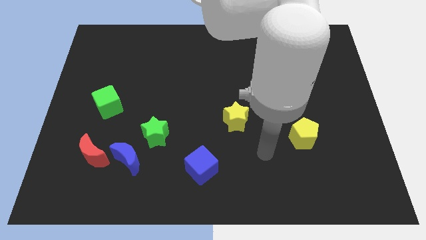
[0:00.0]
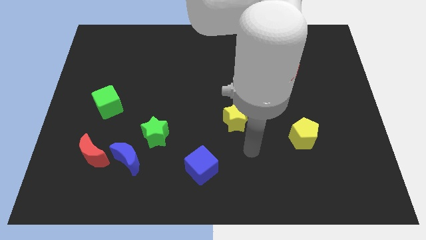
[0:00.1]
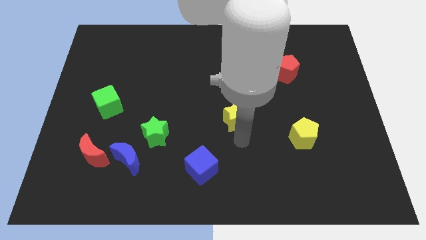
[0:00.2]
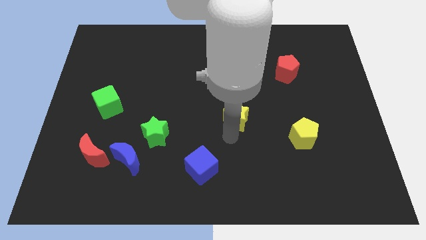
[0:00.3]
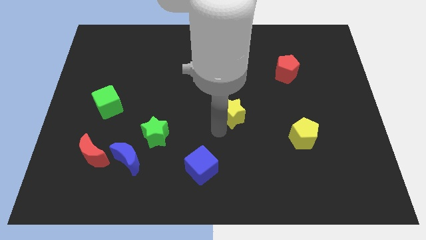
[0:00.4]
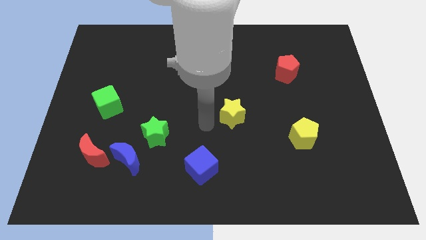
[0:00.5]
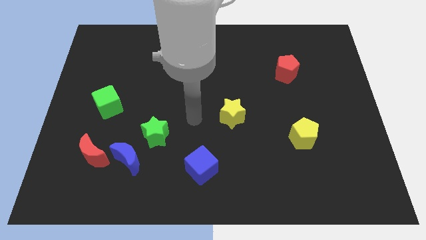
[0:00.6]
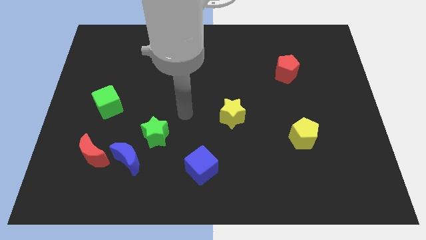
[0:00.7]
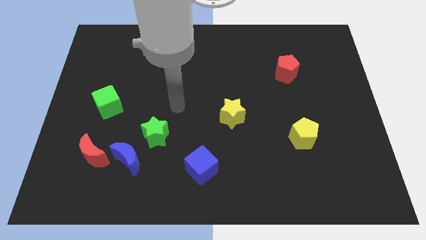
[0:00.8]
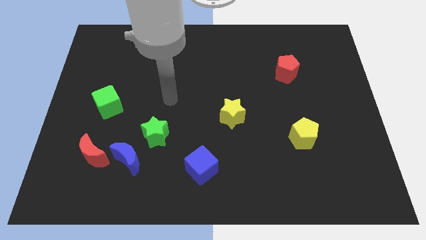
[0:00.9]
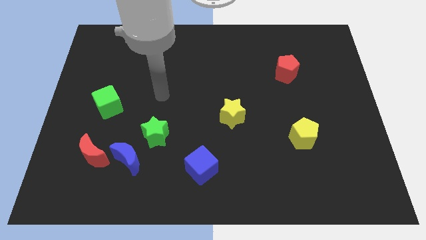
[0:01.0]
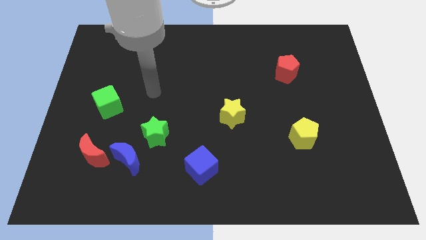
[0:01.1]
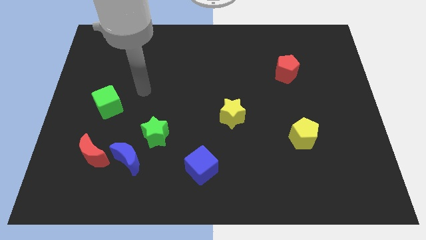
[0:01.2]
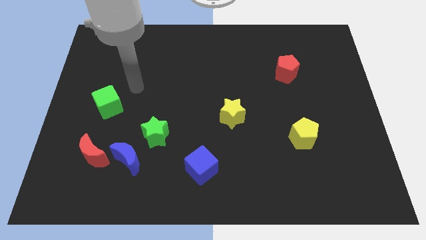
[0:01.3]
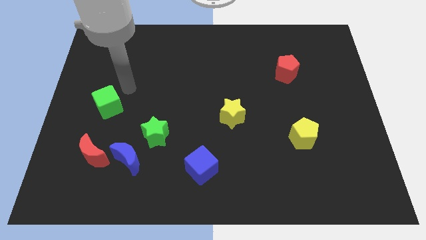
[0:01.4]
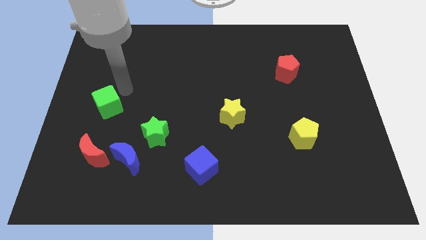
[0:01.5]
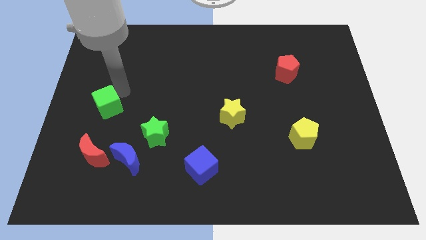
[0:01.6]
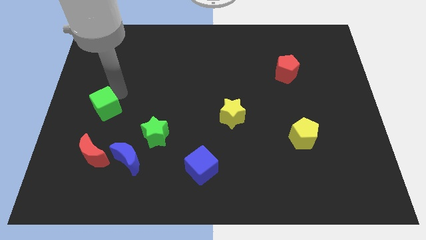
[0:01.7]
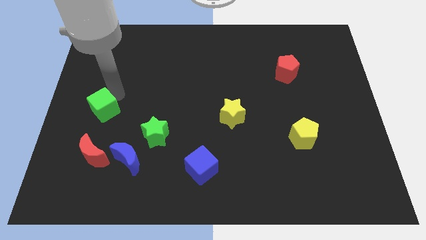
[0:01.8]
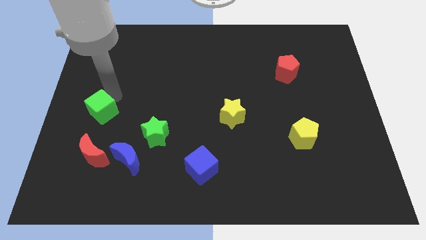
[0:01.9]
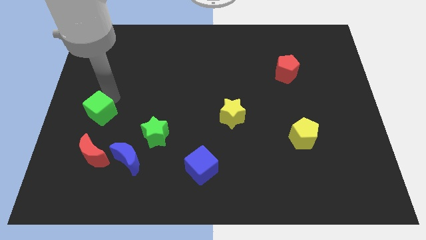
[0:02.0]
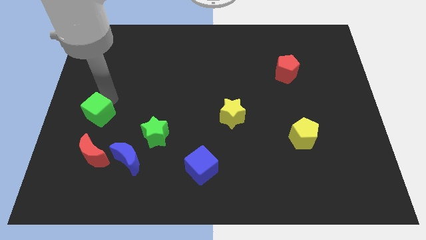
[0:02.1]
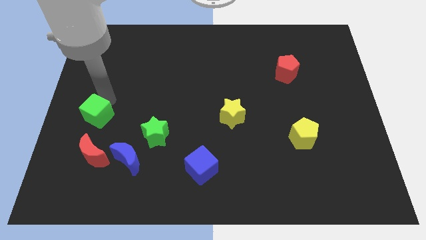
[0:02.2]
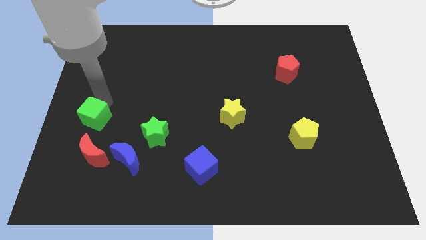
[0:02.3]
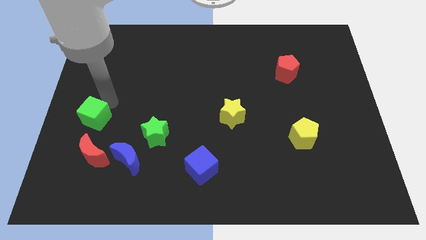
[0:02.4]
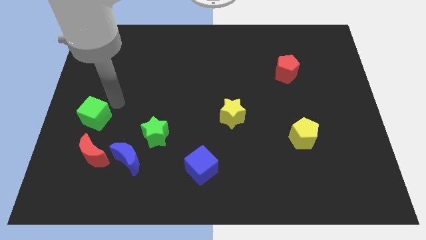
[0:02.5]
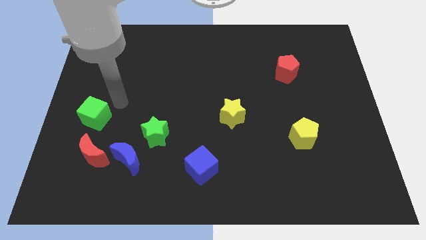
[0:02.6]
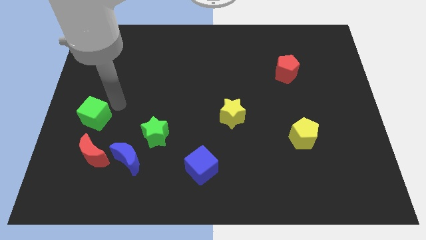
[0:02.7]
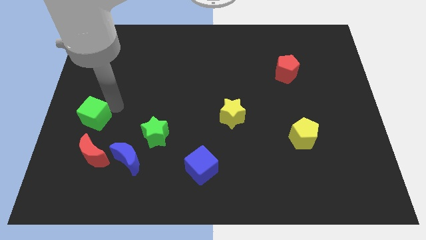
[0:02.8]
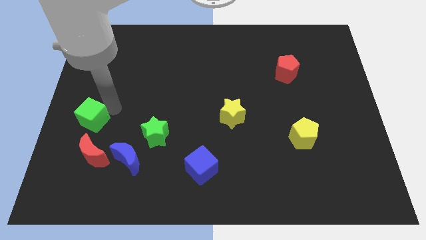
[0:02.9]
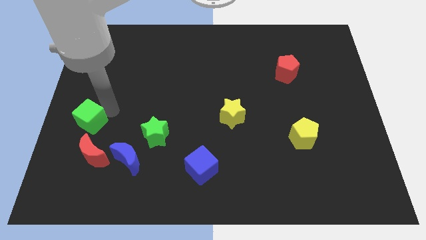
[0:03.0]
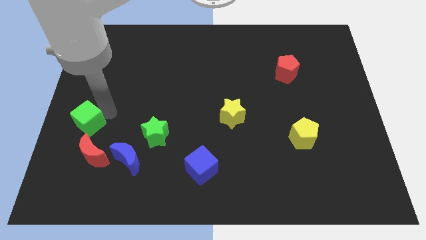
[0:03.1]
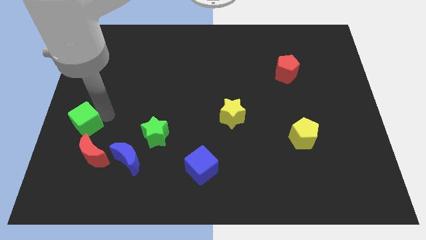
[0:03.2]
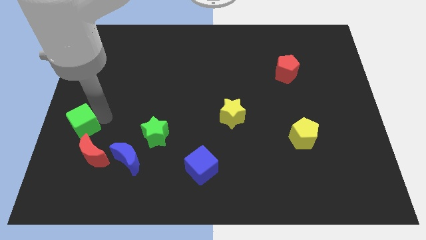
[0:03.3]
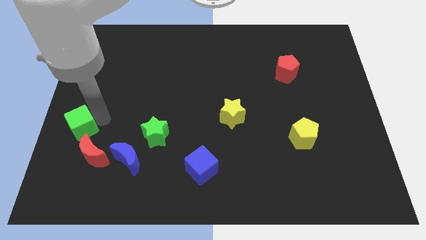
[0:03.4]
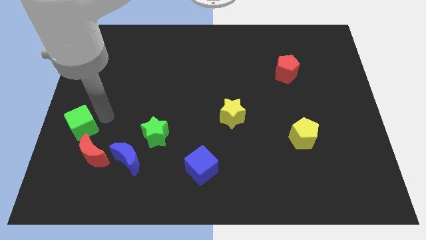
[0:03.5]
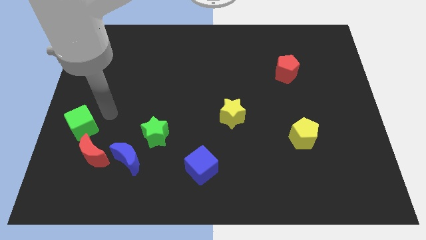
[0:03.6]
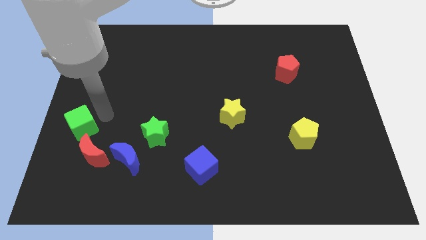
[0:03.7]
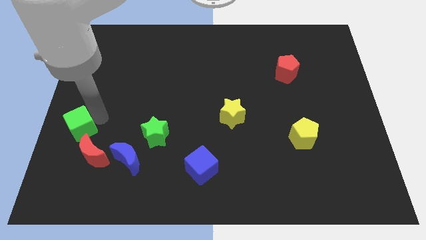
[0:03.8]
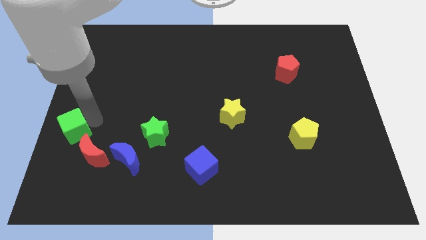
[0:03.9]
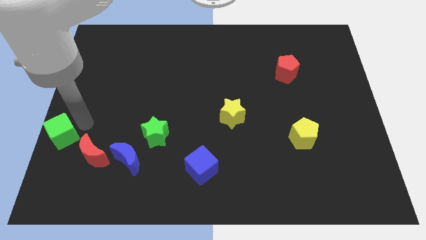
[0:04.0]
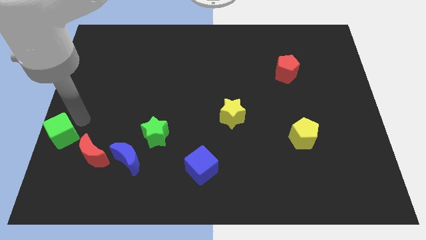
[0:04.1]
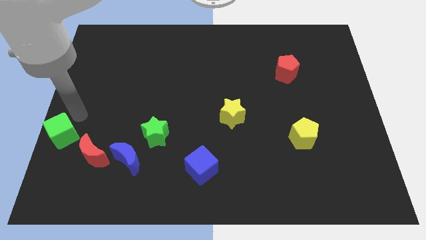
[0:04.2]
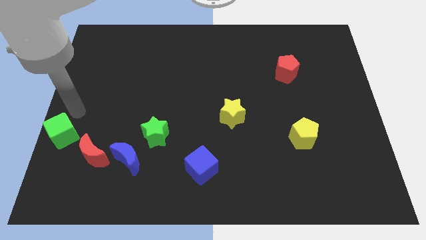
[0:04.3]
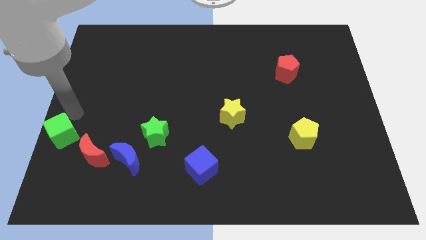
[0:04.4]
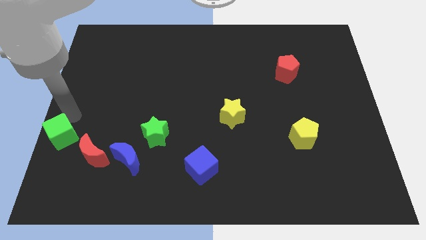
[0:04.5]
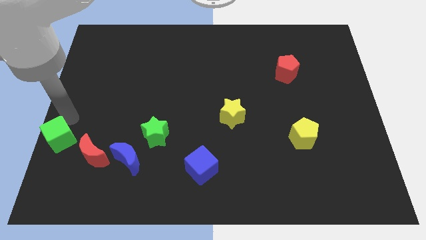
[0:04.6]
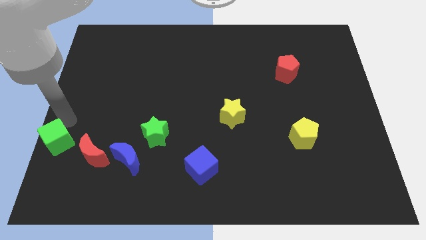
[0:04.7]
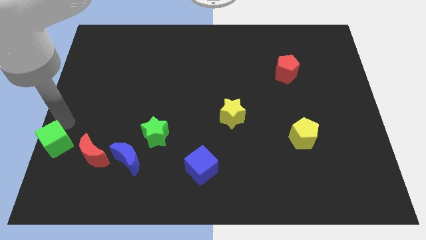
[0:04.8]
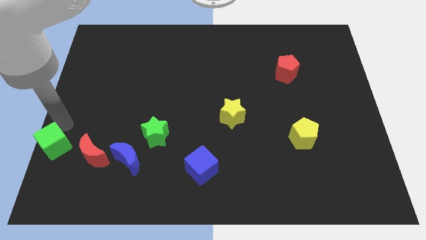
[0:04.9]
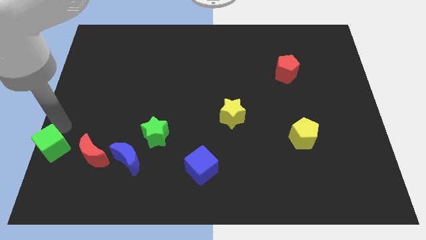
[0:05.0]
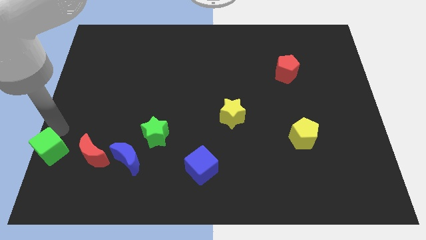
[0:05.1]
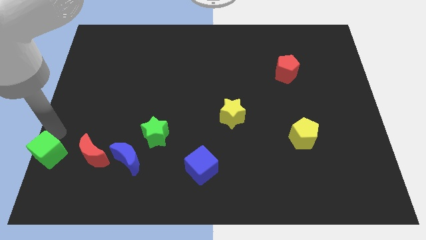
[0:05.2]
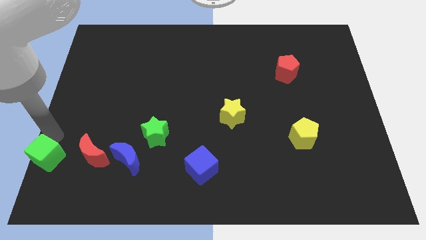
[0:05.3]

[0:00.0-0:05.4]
put the green cube to the bottom left of the board
